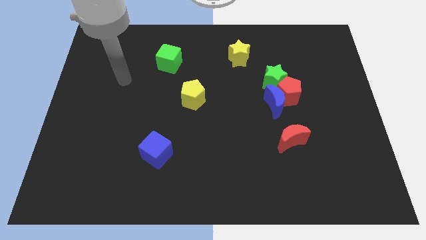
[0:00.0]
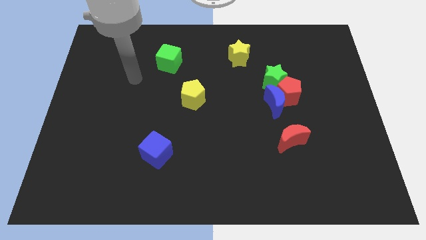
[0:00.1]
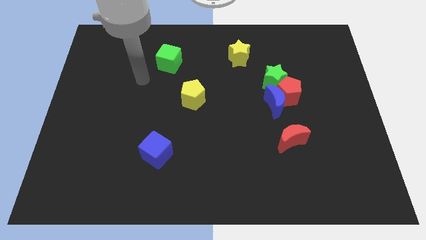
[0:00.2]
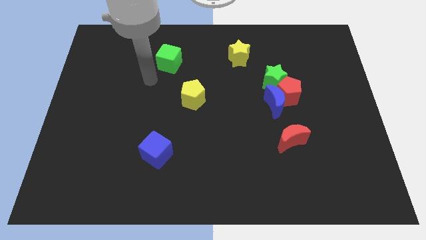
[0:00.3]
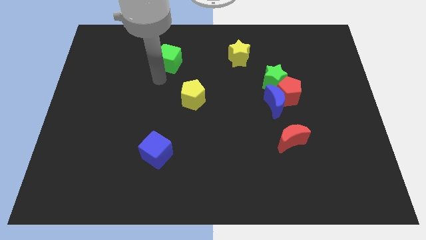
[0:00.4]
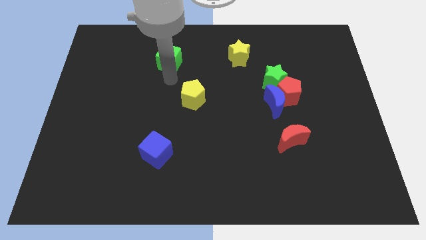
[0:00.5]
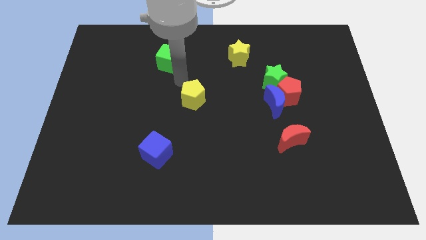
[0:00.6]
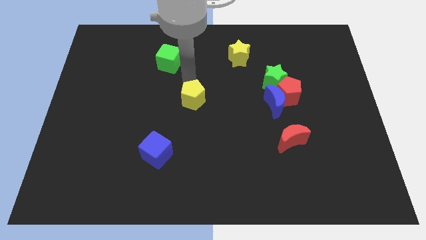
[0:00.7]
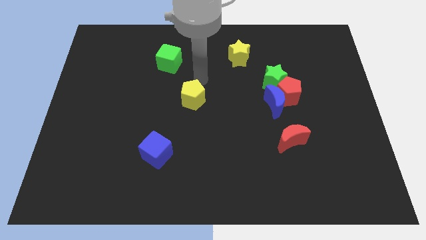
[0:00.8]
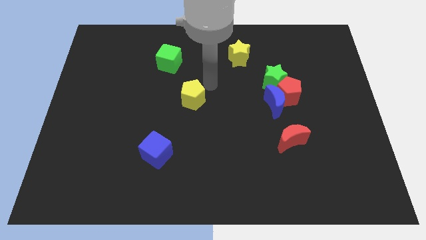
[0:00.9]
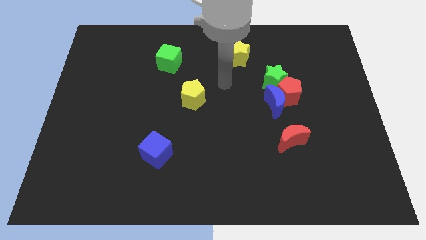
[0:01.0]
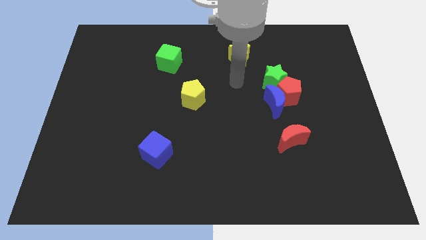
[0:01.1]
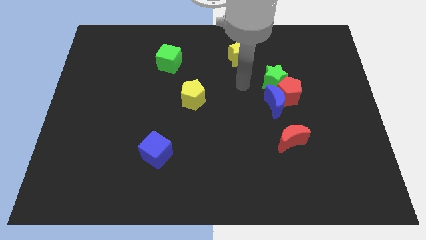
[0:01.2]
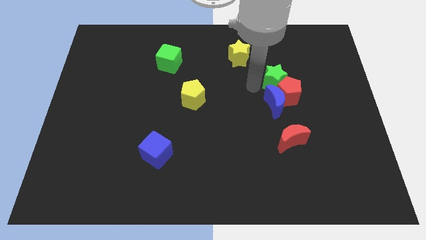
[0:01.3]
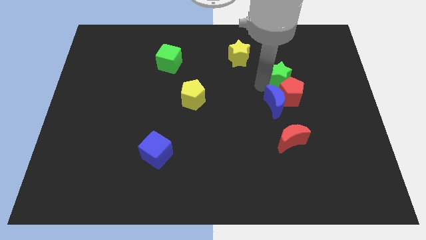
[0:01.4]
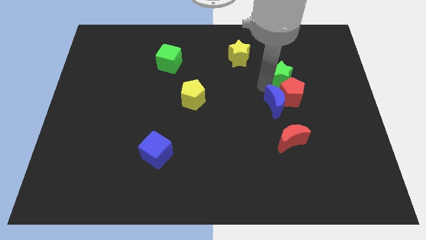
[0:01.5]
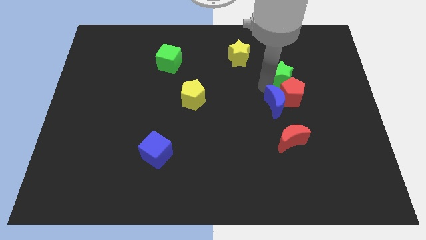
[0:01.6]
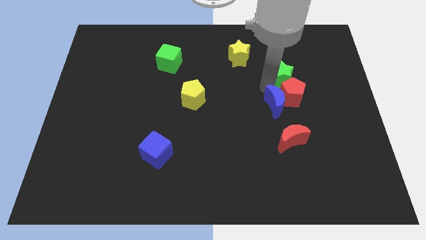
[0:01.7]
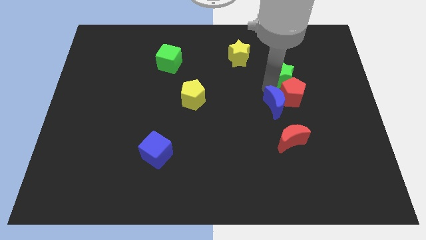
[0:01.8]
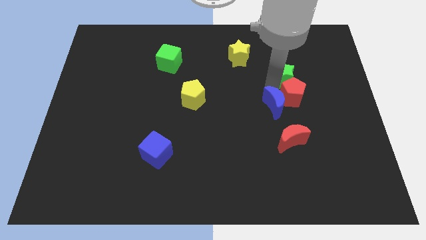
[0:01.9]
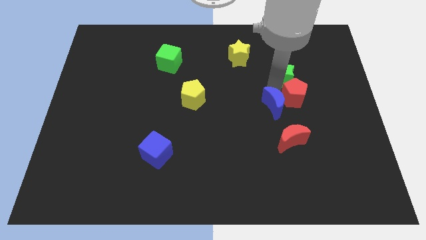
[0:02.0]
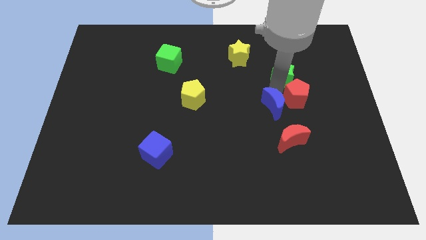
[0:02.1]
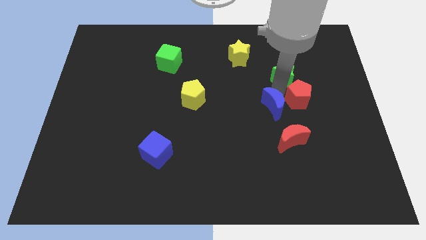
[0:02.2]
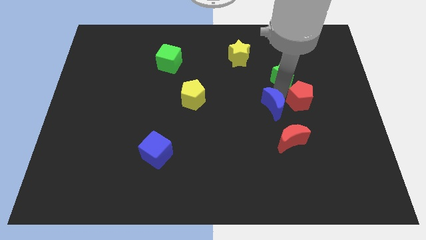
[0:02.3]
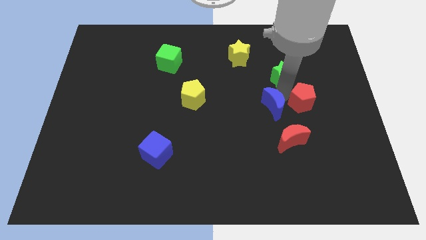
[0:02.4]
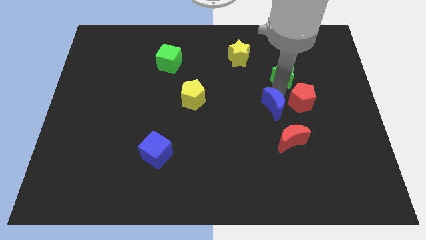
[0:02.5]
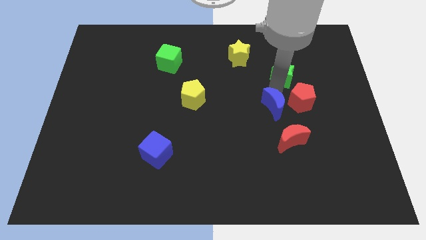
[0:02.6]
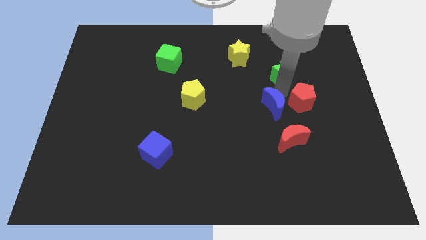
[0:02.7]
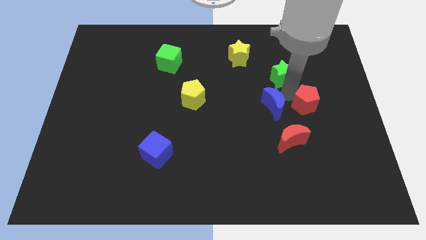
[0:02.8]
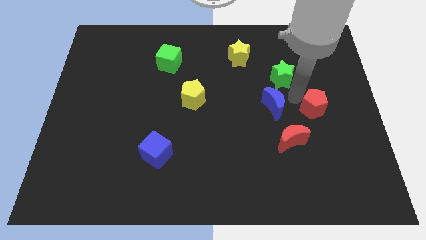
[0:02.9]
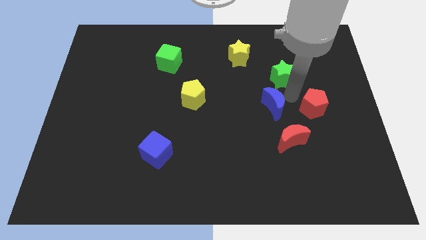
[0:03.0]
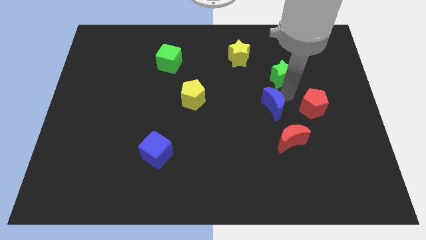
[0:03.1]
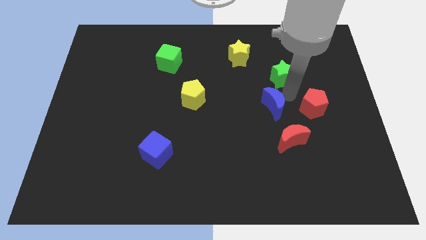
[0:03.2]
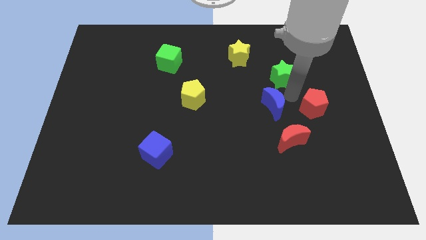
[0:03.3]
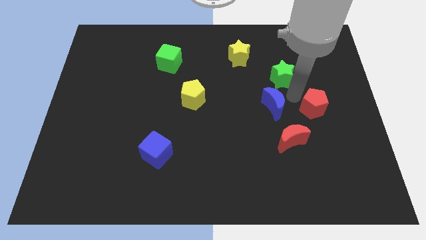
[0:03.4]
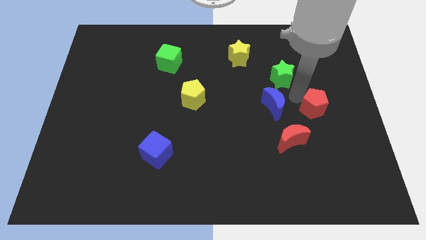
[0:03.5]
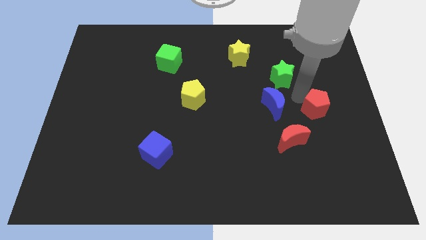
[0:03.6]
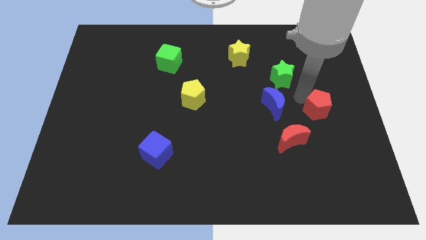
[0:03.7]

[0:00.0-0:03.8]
move the red pentagon away from the blue moon and green star

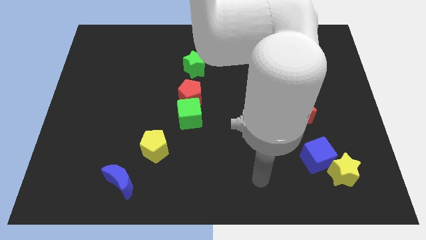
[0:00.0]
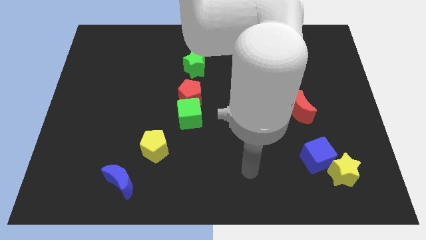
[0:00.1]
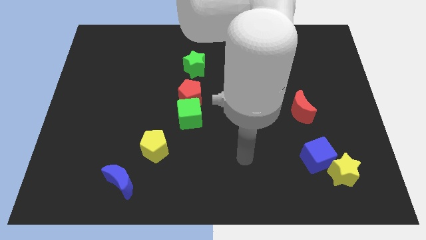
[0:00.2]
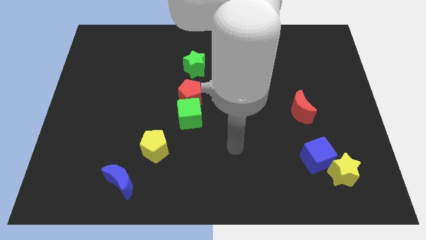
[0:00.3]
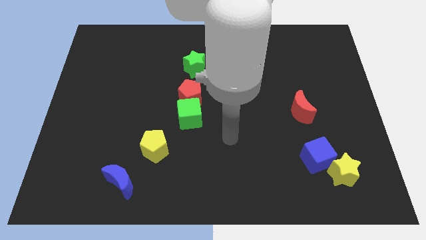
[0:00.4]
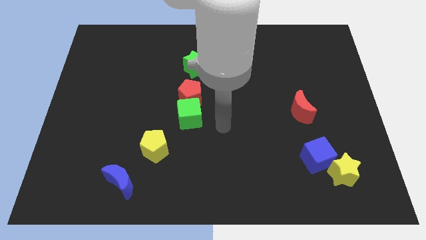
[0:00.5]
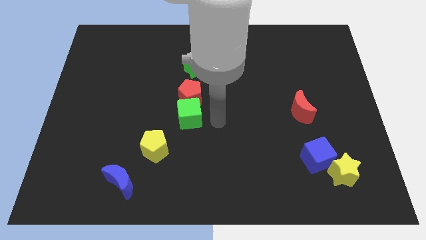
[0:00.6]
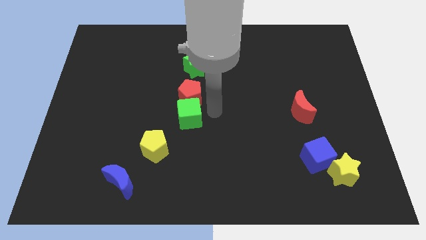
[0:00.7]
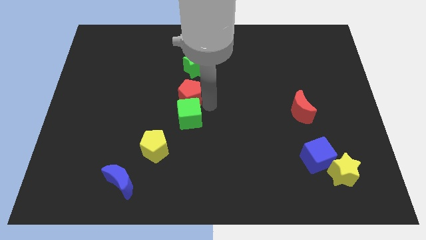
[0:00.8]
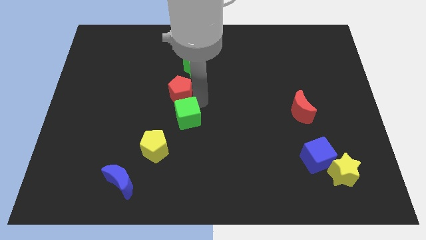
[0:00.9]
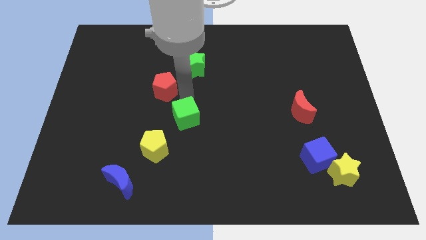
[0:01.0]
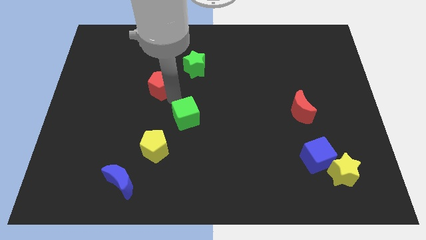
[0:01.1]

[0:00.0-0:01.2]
move the green cube away from the red pentagon

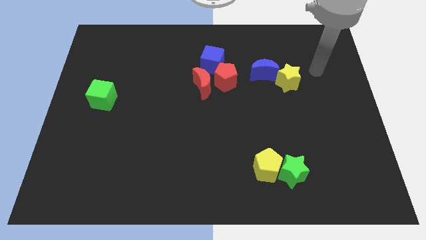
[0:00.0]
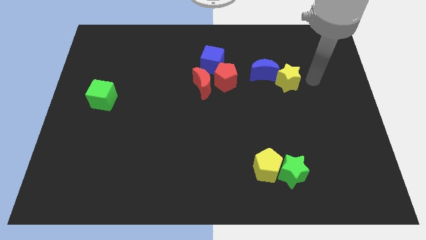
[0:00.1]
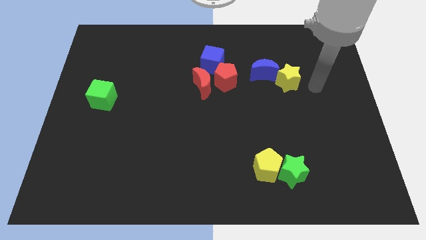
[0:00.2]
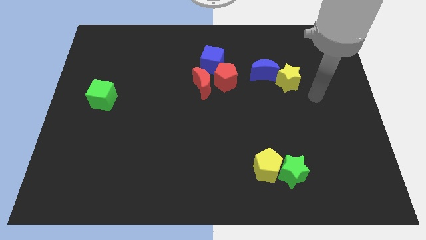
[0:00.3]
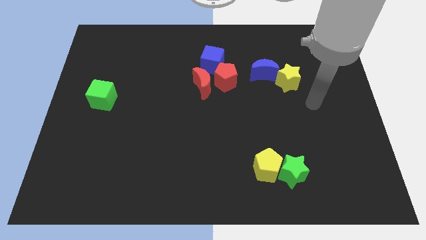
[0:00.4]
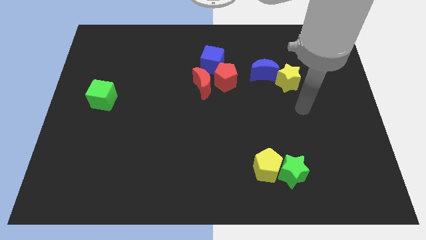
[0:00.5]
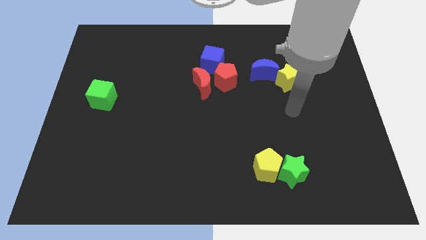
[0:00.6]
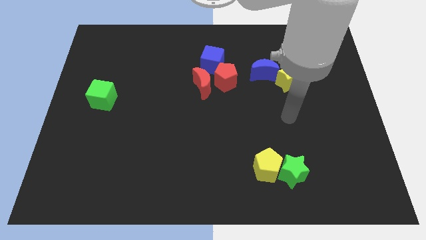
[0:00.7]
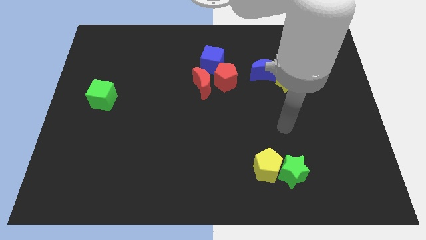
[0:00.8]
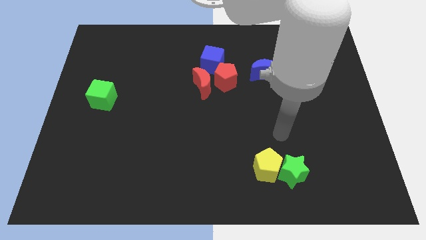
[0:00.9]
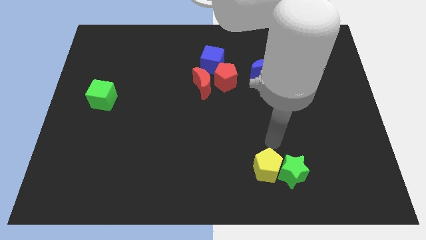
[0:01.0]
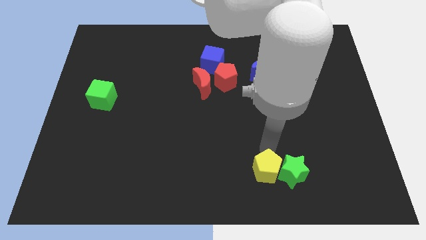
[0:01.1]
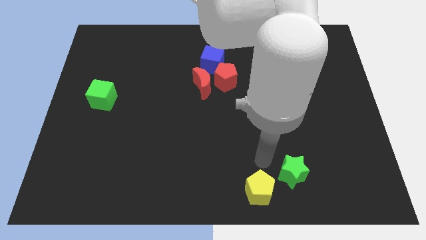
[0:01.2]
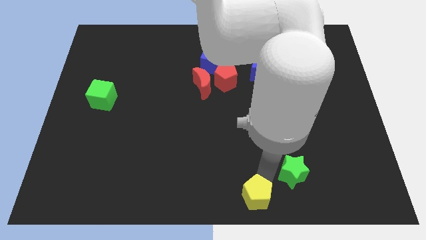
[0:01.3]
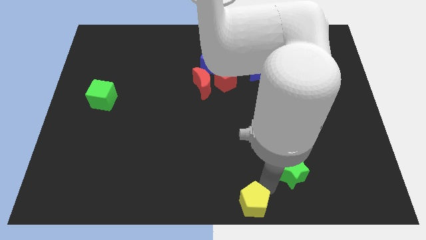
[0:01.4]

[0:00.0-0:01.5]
move the green star away from the yellow pentagon

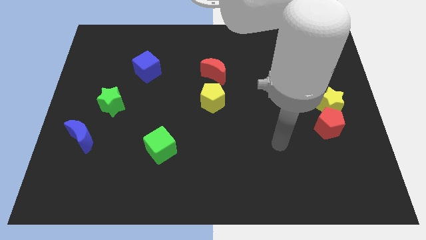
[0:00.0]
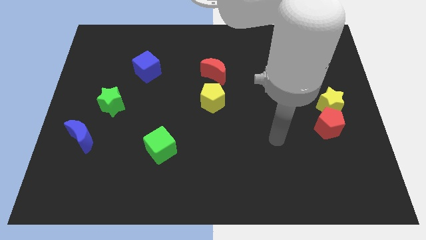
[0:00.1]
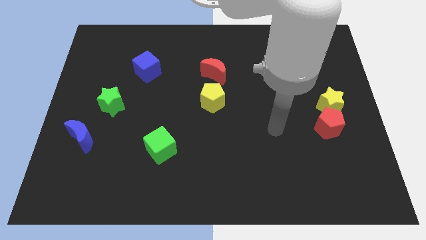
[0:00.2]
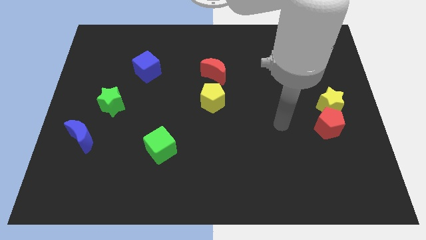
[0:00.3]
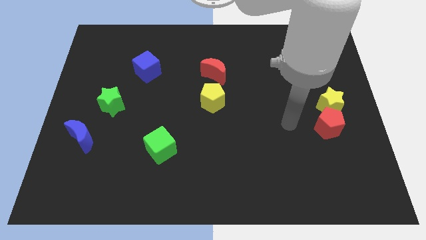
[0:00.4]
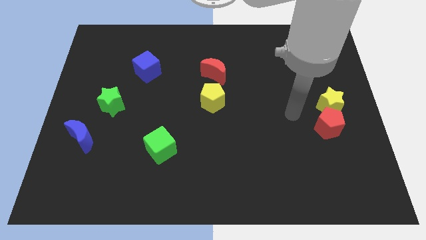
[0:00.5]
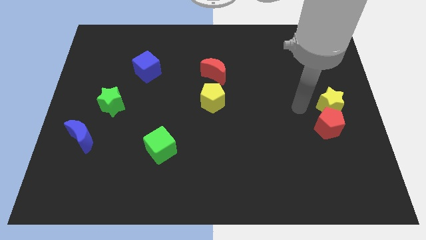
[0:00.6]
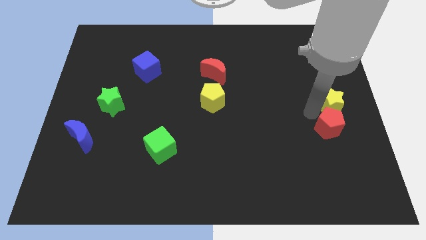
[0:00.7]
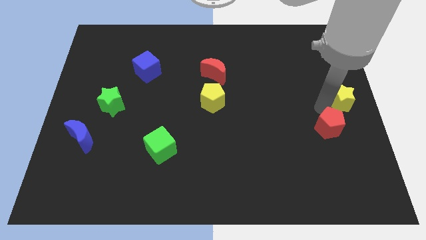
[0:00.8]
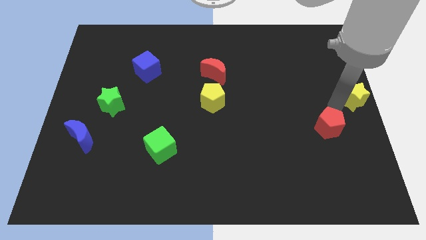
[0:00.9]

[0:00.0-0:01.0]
pull the red pentagon apart from the yellow star

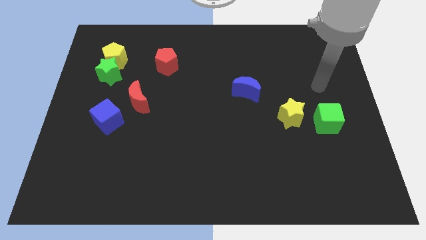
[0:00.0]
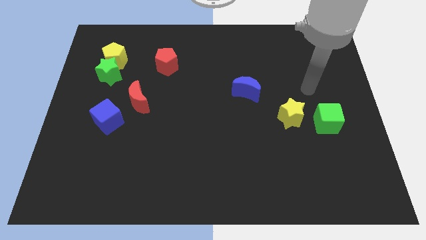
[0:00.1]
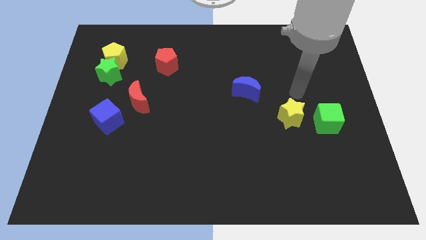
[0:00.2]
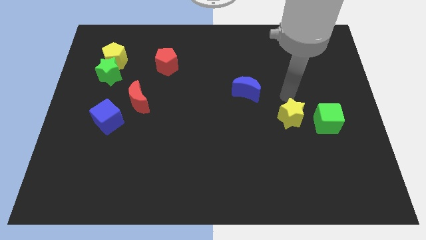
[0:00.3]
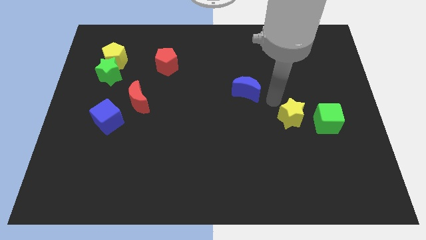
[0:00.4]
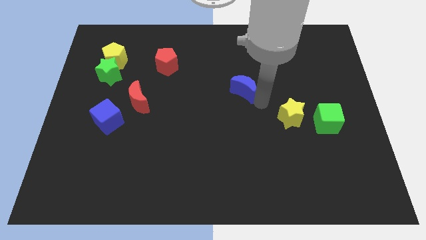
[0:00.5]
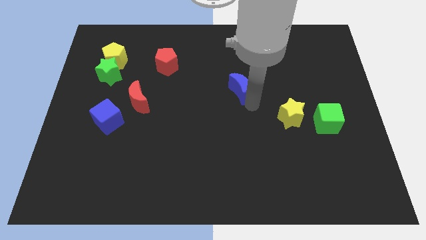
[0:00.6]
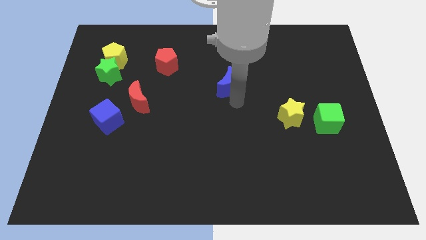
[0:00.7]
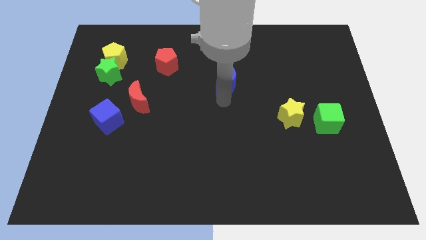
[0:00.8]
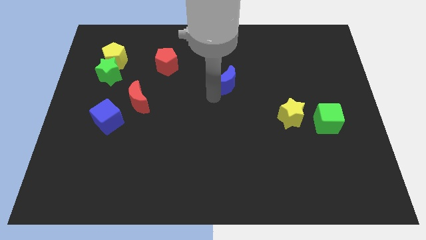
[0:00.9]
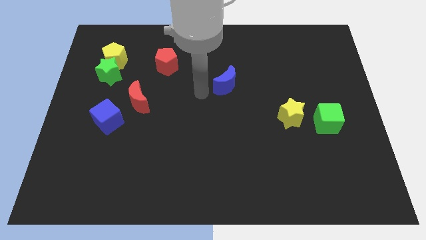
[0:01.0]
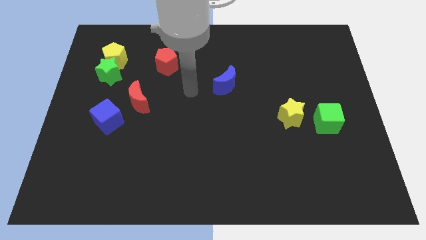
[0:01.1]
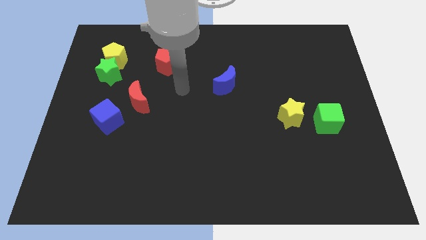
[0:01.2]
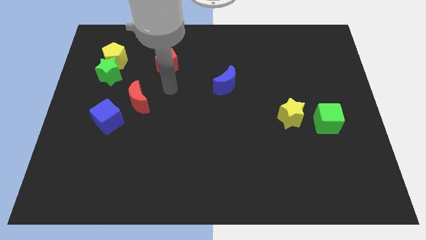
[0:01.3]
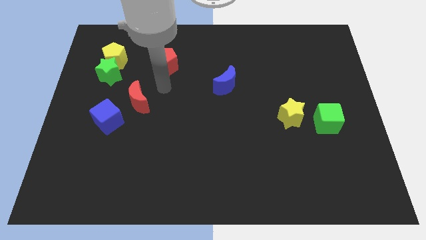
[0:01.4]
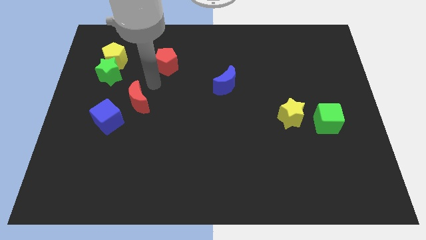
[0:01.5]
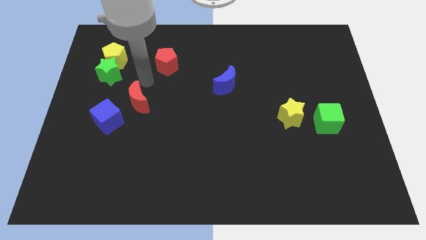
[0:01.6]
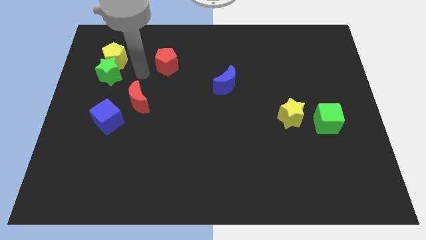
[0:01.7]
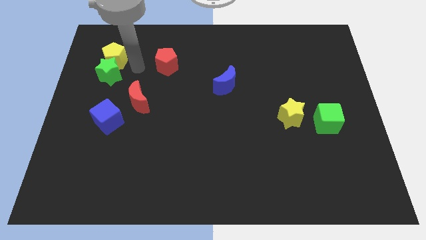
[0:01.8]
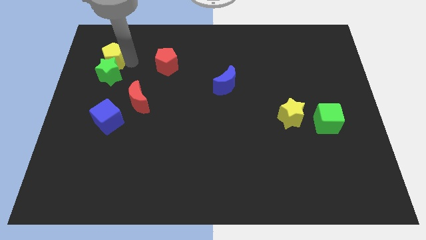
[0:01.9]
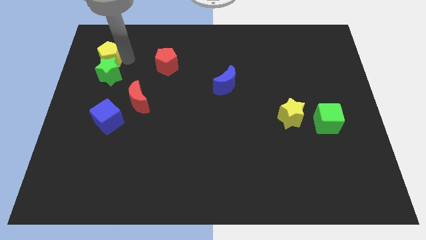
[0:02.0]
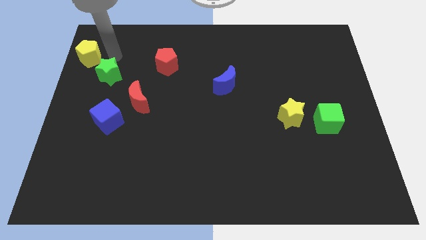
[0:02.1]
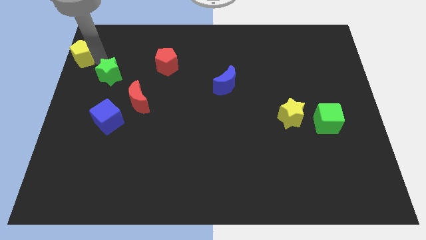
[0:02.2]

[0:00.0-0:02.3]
separate the green star from the yellow pentagon
